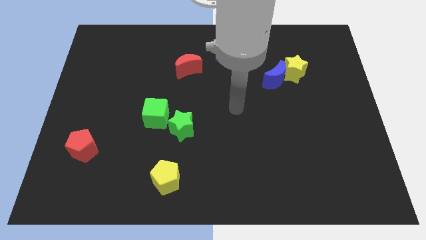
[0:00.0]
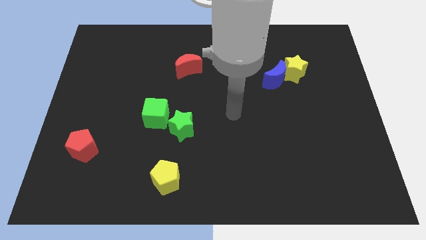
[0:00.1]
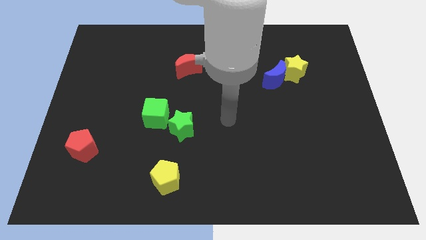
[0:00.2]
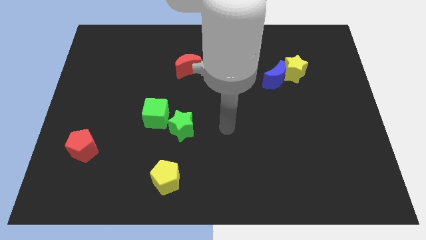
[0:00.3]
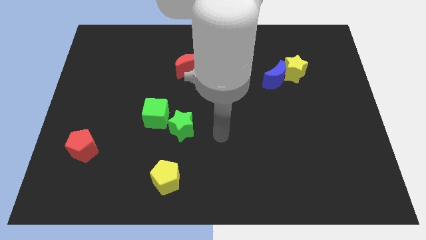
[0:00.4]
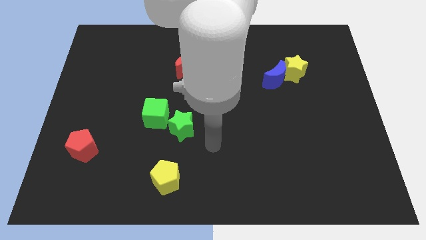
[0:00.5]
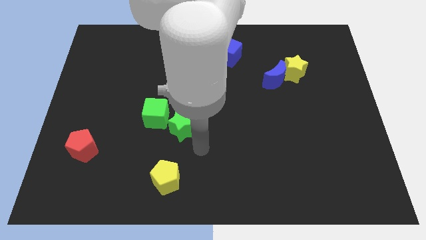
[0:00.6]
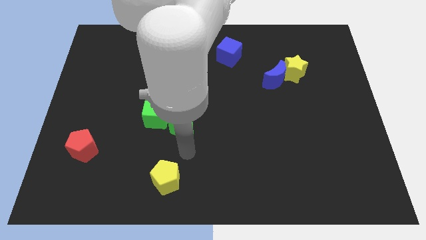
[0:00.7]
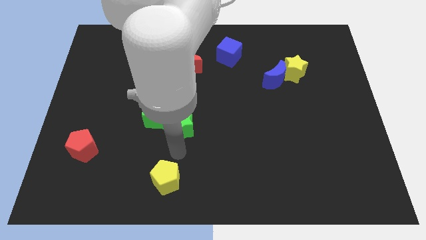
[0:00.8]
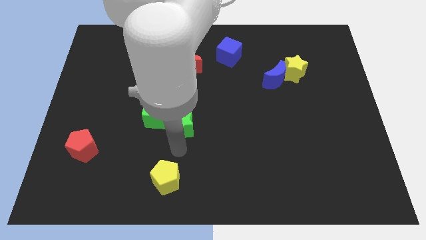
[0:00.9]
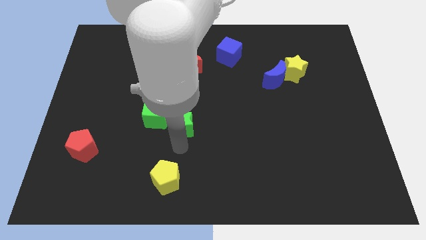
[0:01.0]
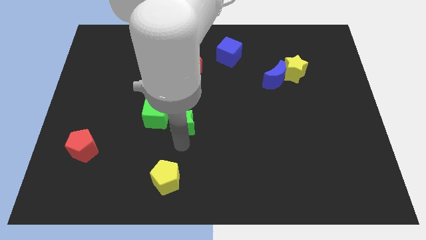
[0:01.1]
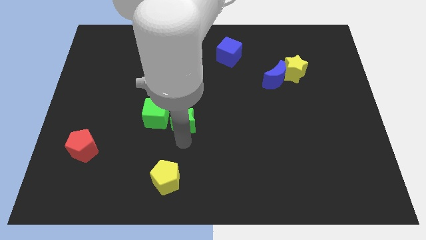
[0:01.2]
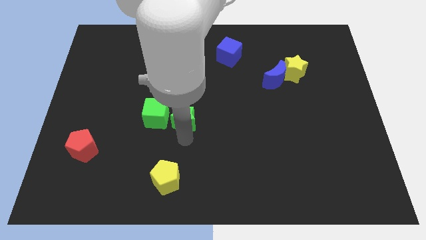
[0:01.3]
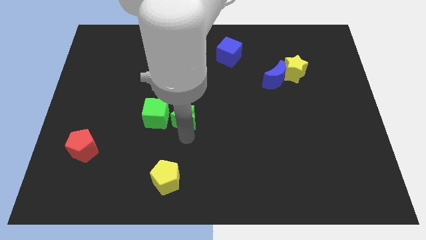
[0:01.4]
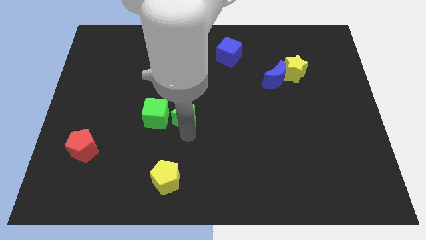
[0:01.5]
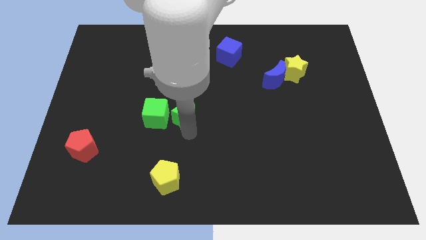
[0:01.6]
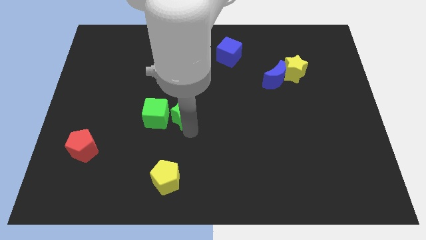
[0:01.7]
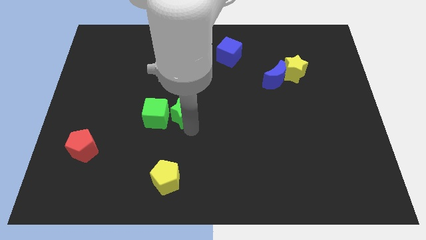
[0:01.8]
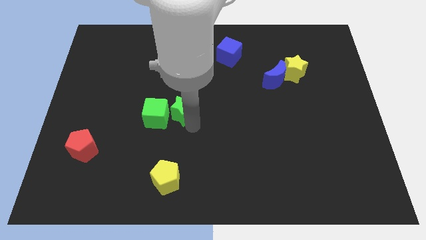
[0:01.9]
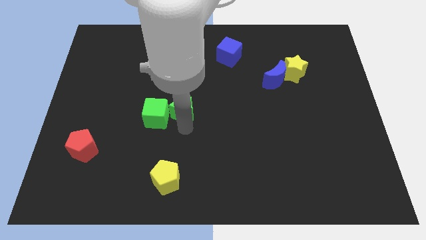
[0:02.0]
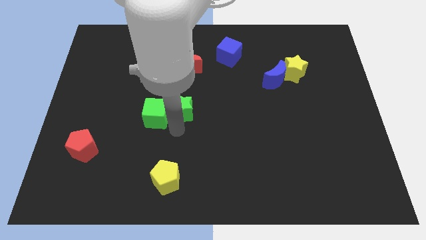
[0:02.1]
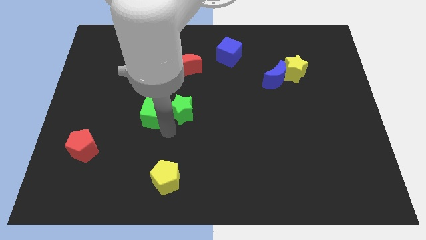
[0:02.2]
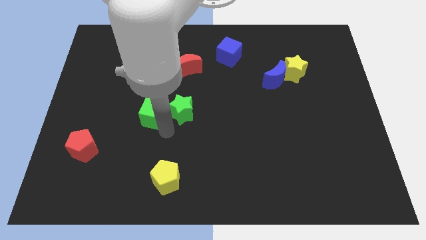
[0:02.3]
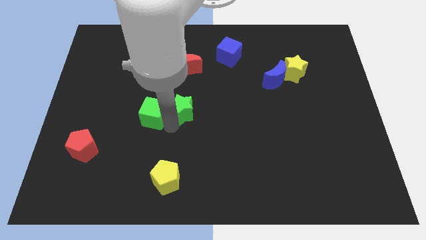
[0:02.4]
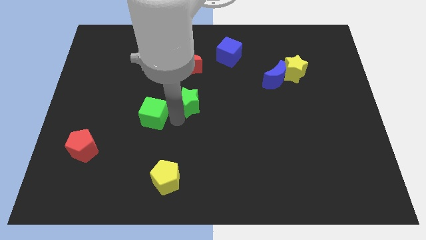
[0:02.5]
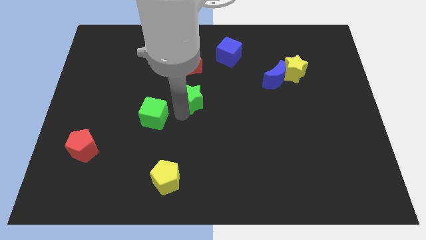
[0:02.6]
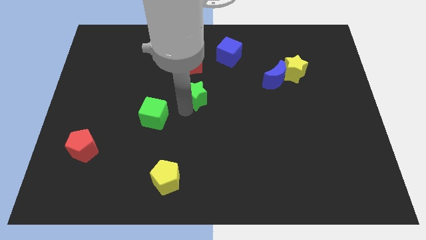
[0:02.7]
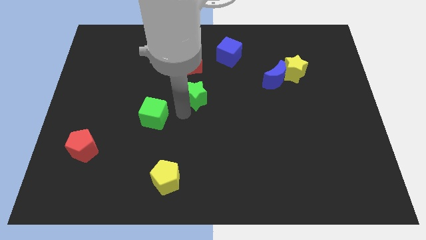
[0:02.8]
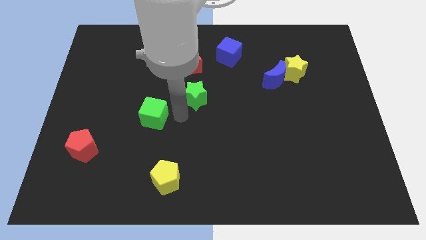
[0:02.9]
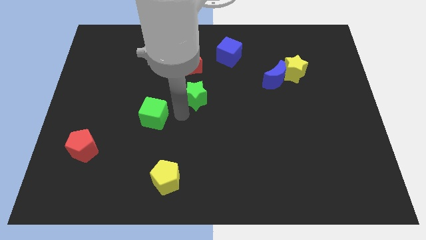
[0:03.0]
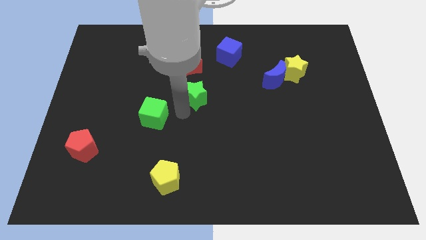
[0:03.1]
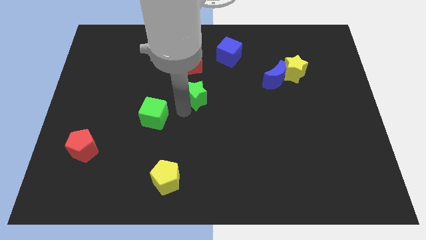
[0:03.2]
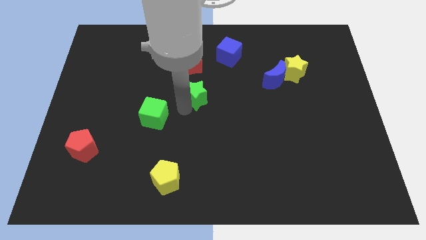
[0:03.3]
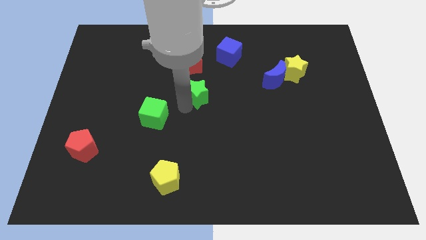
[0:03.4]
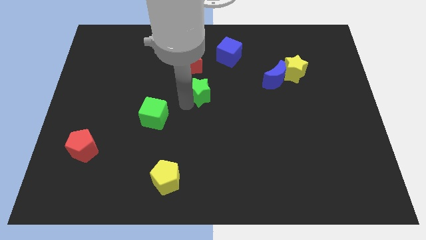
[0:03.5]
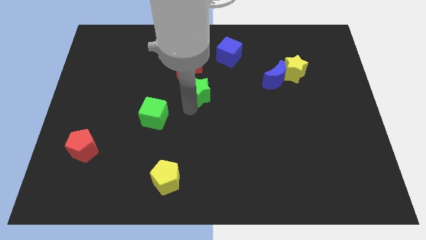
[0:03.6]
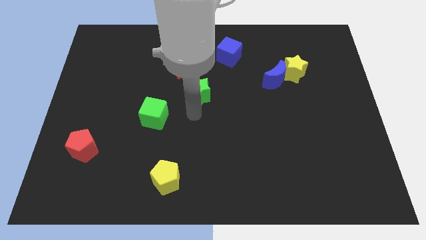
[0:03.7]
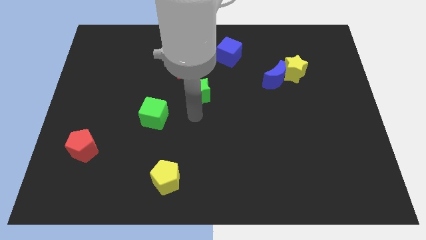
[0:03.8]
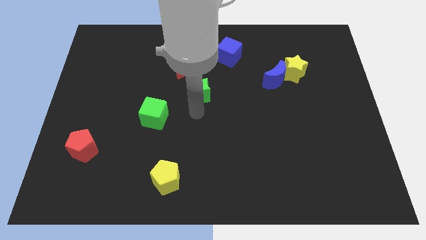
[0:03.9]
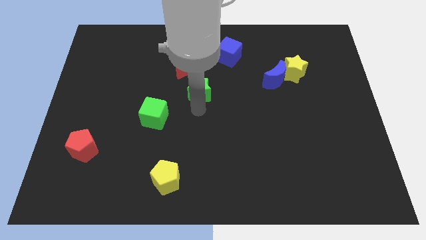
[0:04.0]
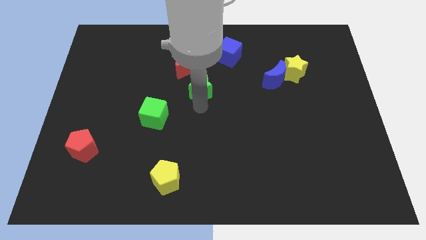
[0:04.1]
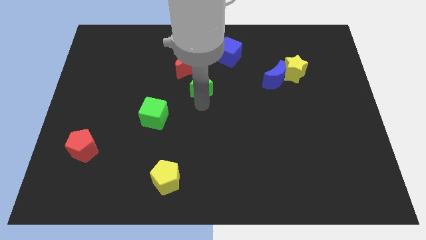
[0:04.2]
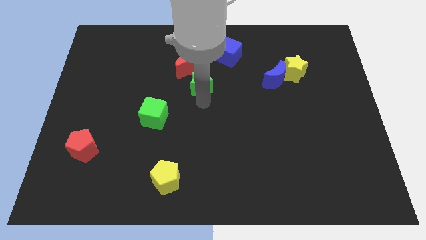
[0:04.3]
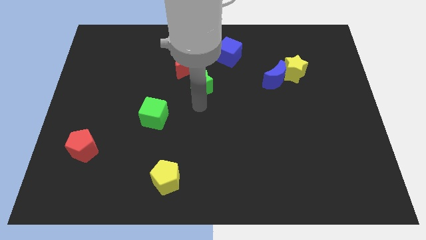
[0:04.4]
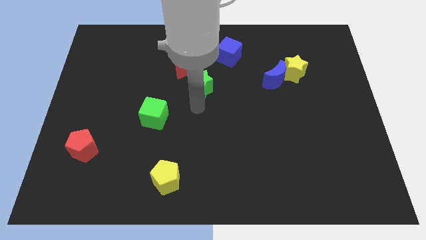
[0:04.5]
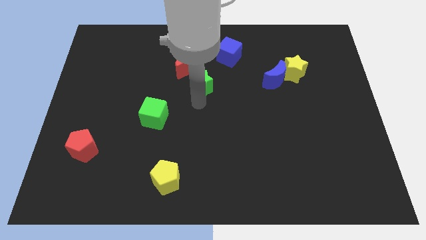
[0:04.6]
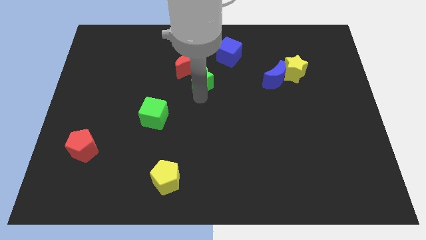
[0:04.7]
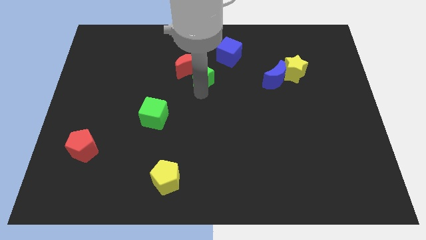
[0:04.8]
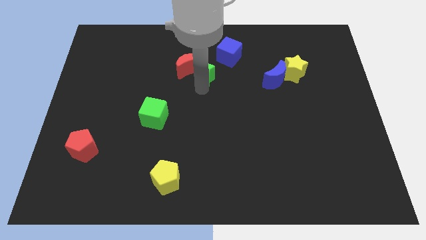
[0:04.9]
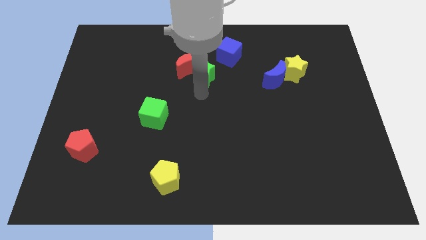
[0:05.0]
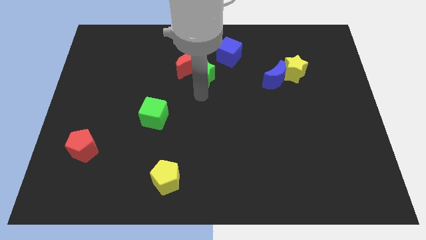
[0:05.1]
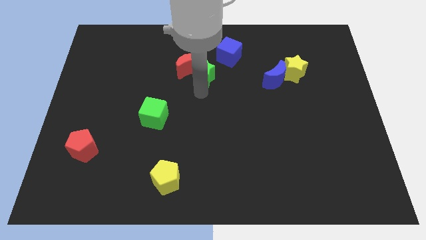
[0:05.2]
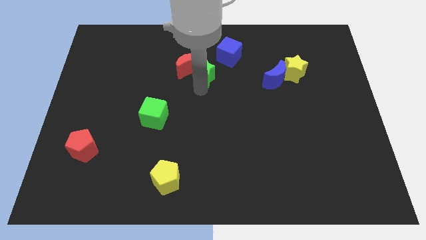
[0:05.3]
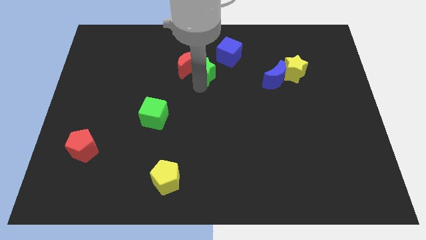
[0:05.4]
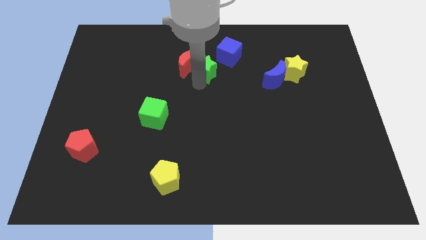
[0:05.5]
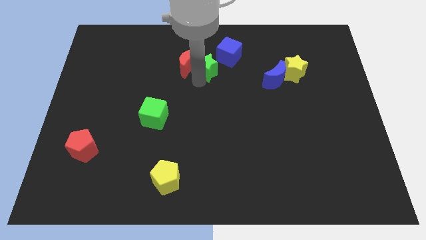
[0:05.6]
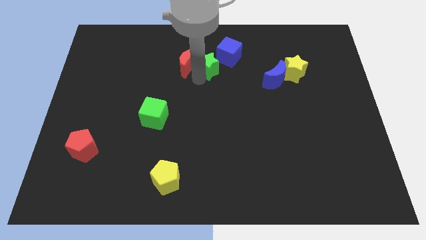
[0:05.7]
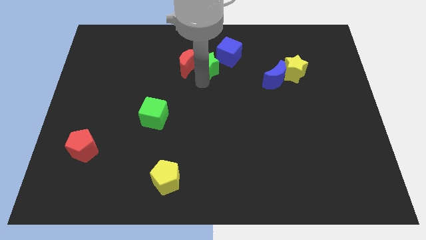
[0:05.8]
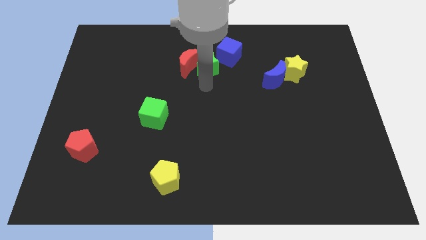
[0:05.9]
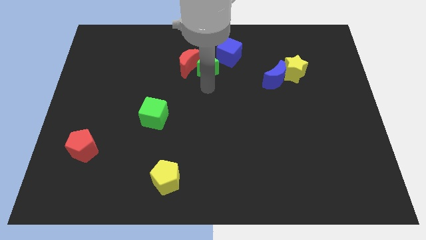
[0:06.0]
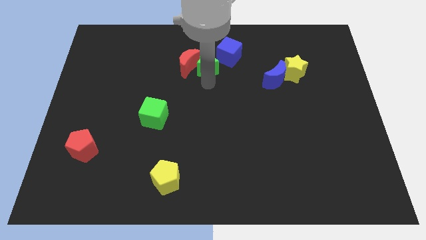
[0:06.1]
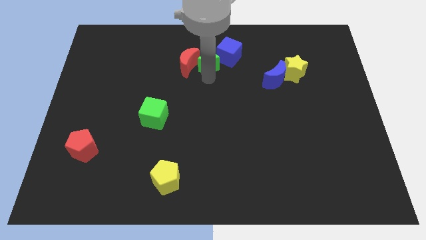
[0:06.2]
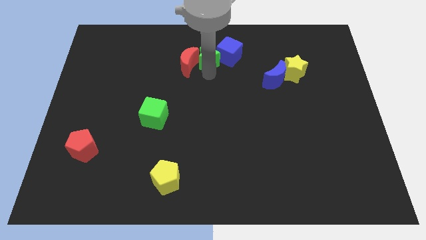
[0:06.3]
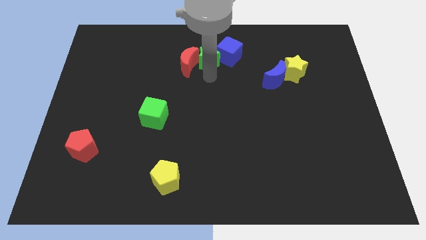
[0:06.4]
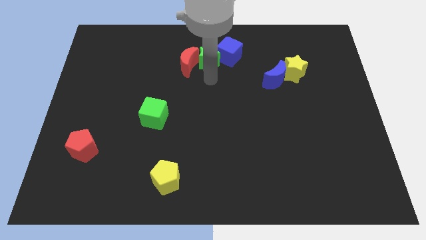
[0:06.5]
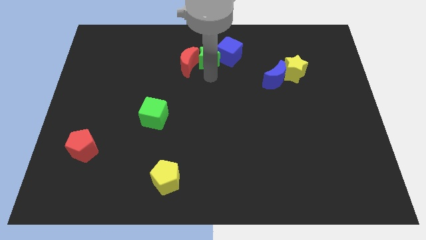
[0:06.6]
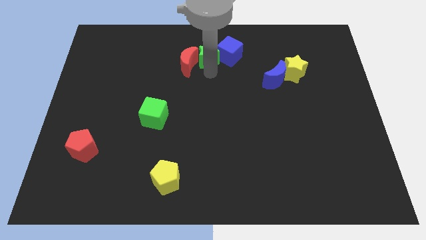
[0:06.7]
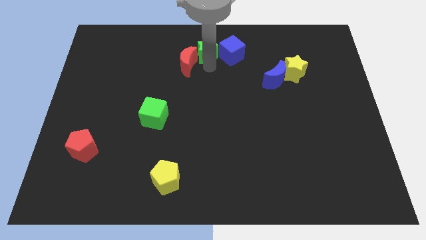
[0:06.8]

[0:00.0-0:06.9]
move the green star to the top
